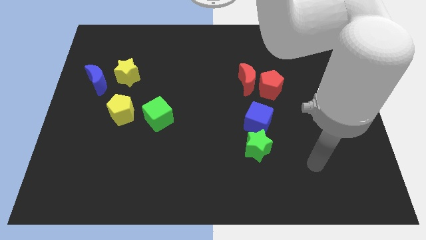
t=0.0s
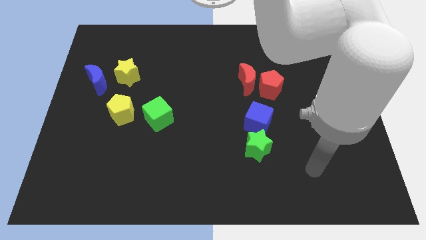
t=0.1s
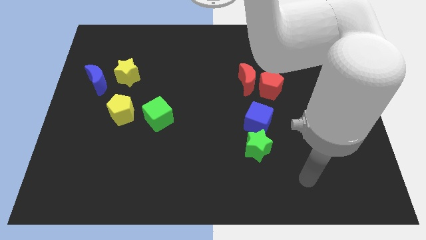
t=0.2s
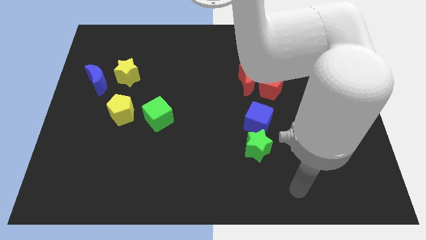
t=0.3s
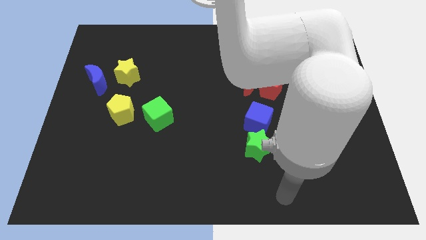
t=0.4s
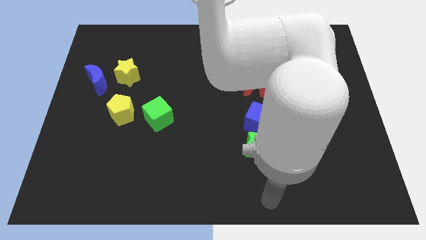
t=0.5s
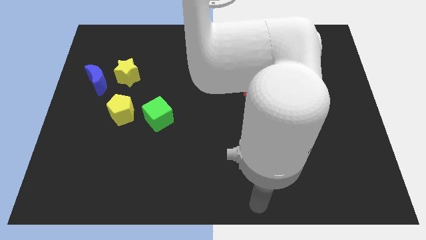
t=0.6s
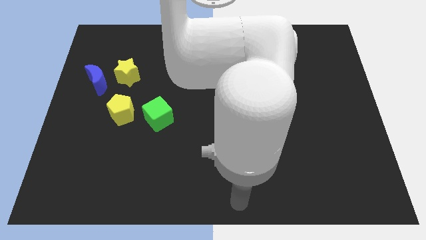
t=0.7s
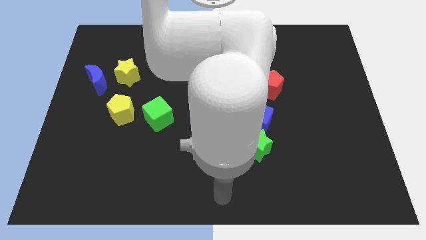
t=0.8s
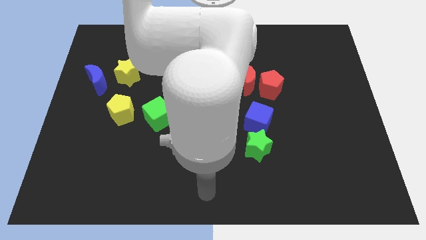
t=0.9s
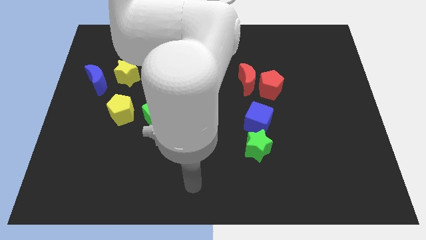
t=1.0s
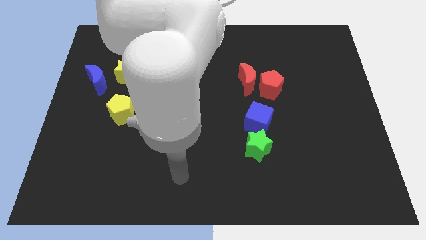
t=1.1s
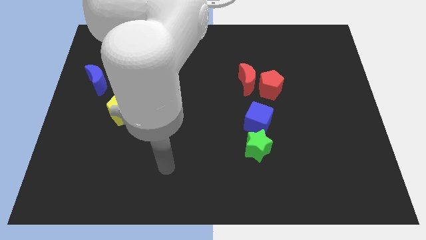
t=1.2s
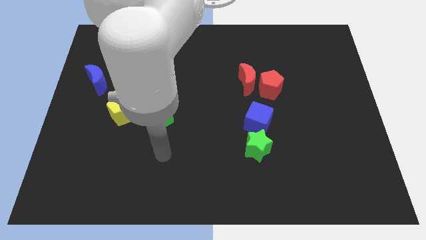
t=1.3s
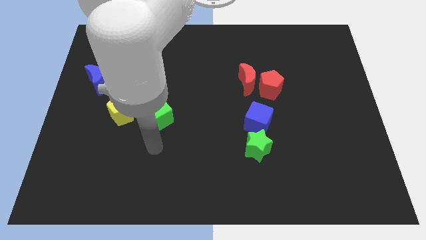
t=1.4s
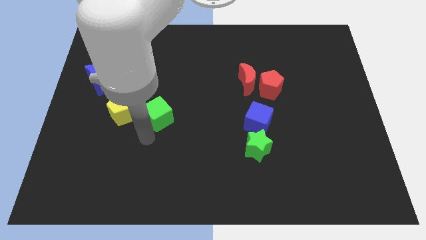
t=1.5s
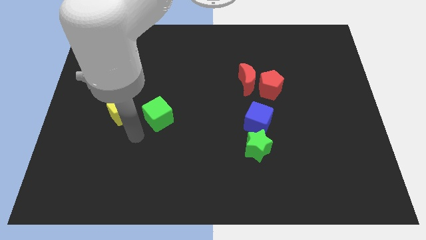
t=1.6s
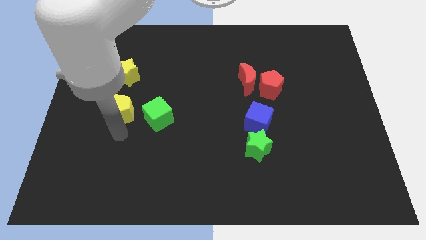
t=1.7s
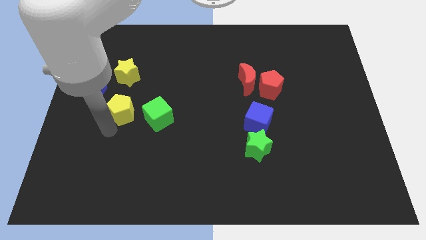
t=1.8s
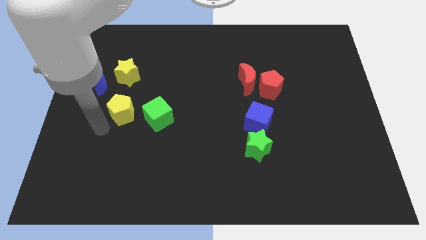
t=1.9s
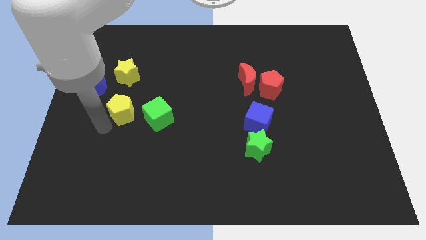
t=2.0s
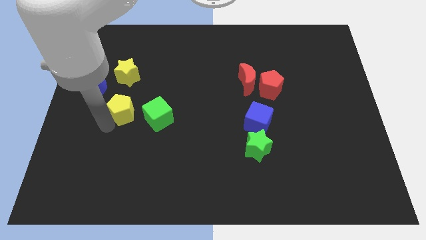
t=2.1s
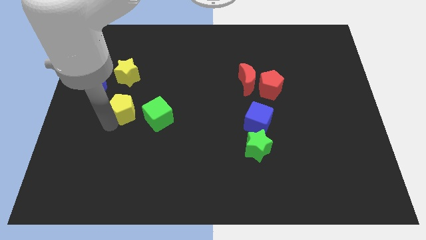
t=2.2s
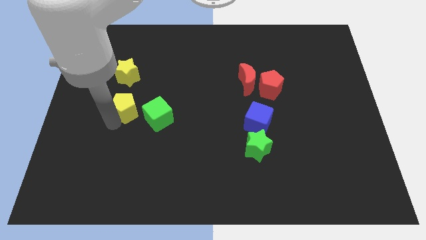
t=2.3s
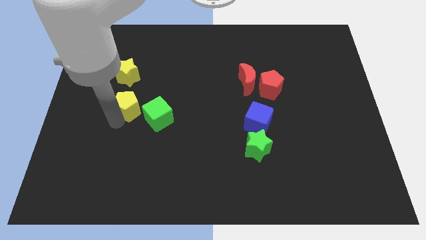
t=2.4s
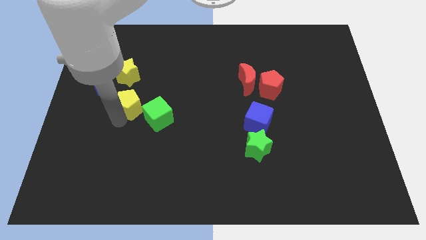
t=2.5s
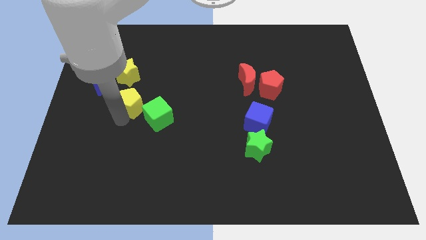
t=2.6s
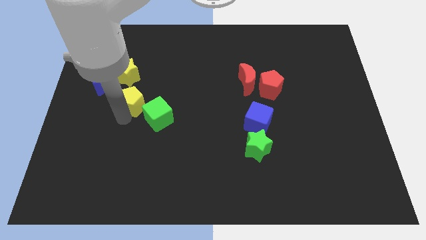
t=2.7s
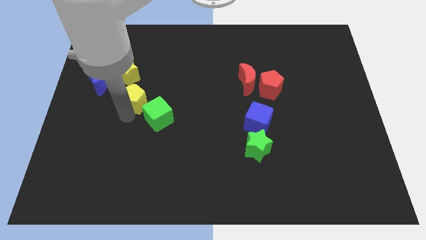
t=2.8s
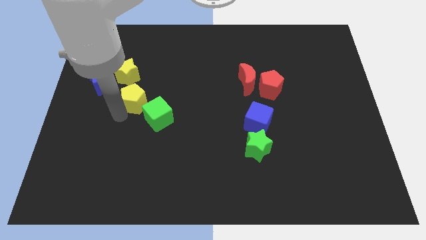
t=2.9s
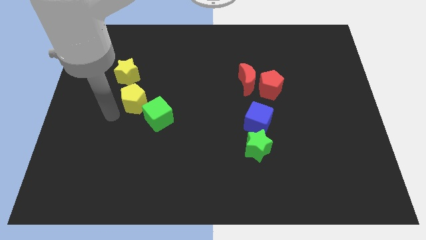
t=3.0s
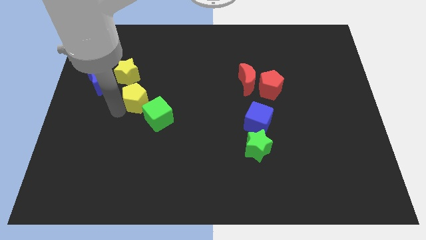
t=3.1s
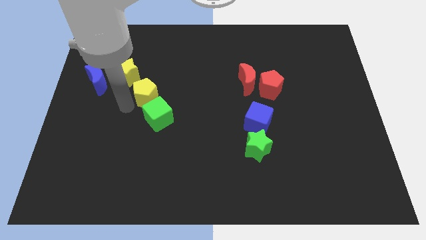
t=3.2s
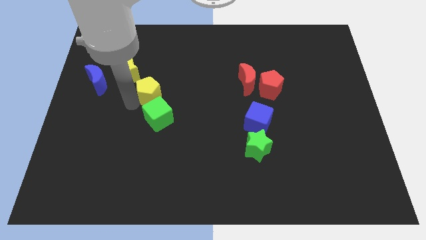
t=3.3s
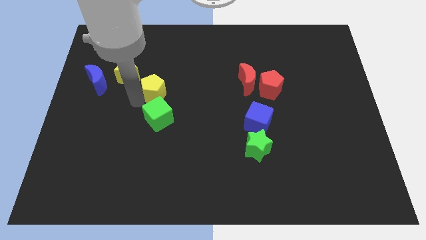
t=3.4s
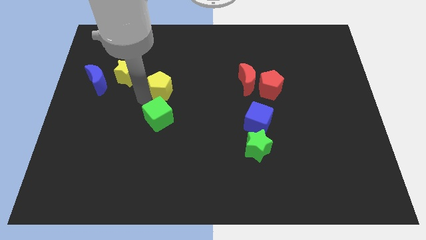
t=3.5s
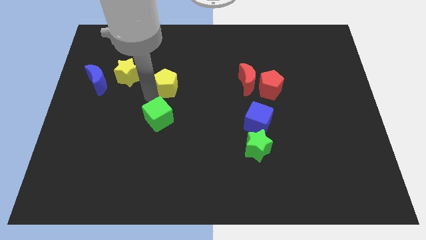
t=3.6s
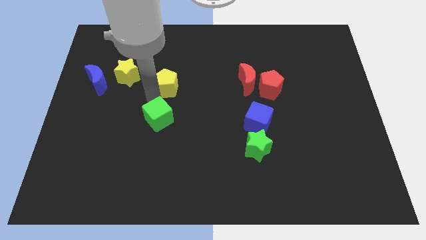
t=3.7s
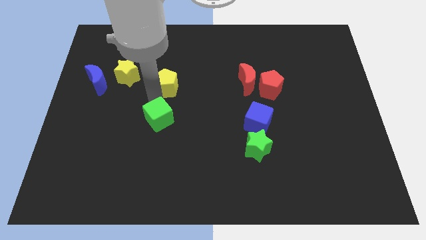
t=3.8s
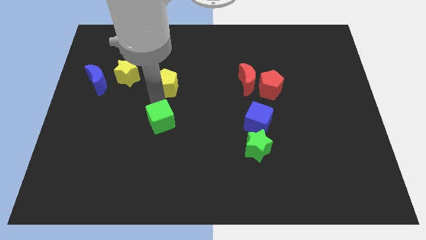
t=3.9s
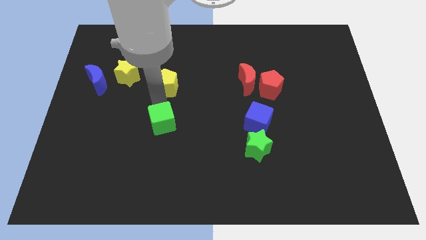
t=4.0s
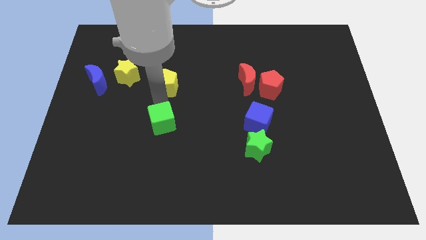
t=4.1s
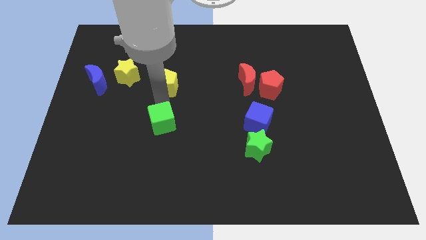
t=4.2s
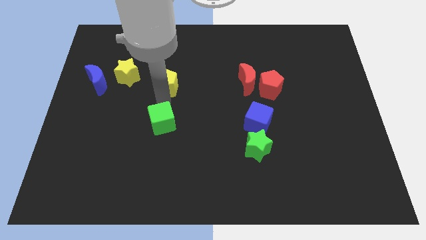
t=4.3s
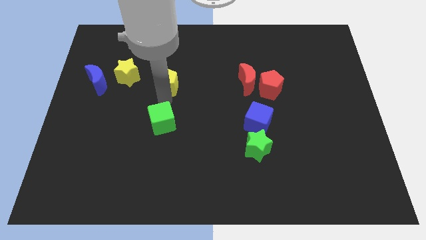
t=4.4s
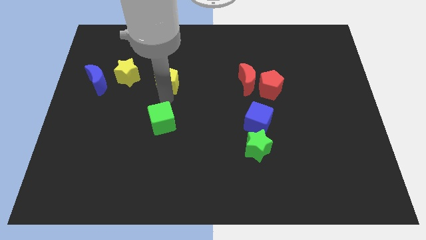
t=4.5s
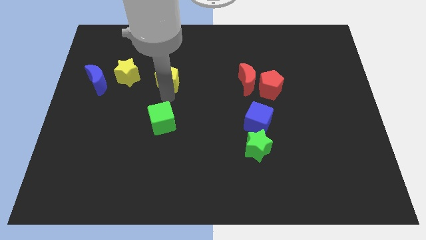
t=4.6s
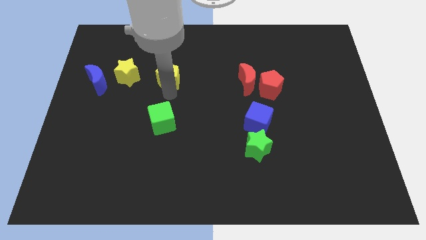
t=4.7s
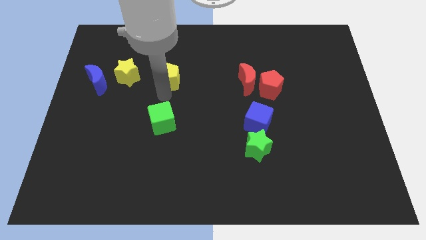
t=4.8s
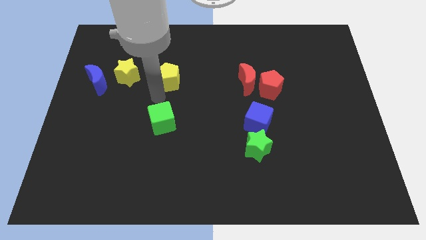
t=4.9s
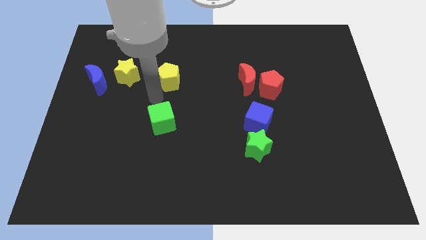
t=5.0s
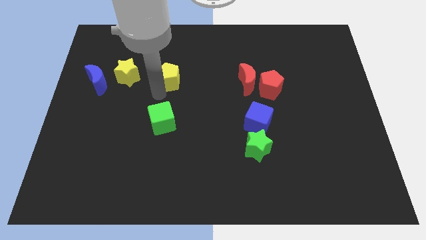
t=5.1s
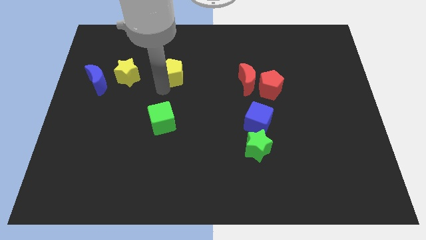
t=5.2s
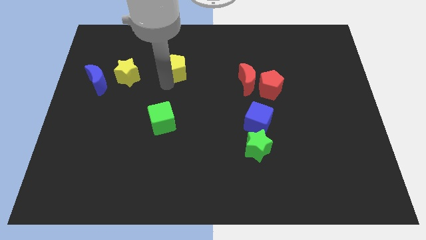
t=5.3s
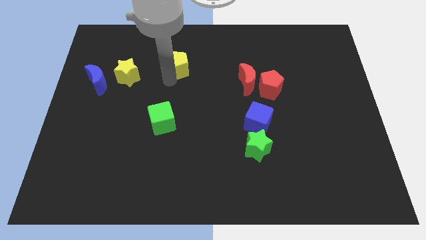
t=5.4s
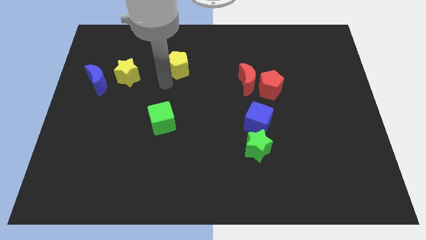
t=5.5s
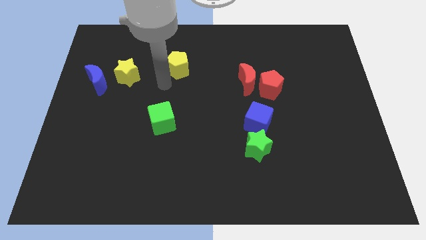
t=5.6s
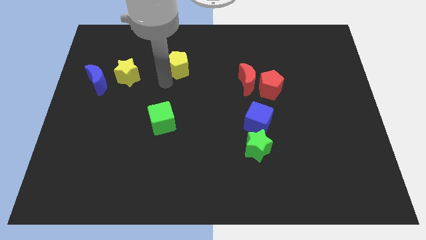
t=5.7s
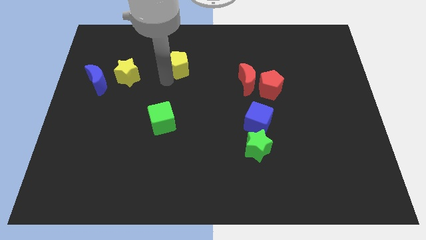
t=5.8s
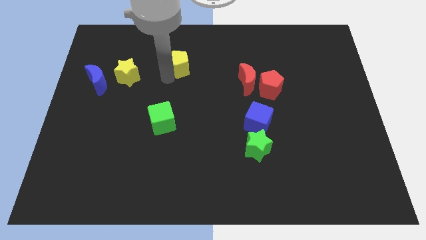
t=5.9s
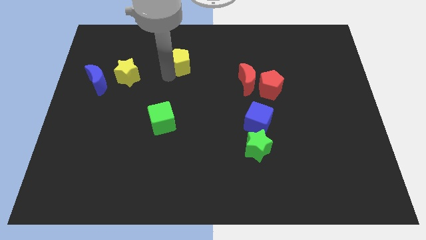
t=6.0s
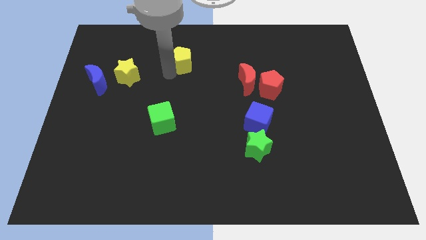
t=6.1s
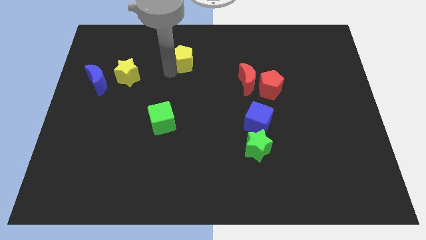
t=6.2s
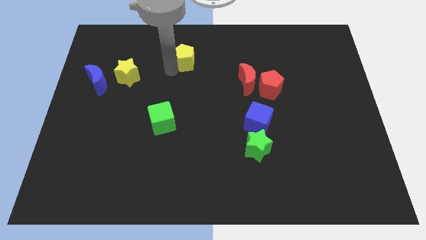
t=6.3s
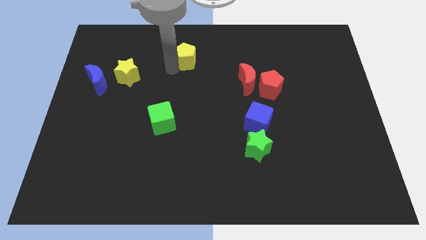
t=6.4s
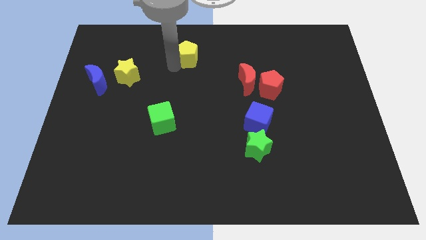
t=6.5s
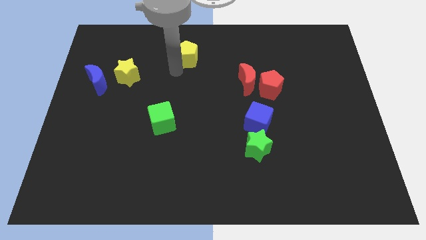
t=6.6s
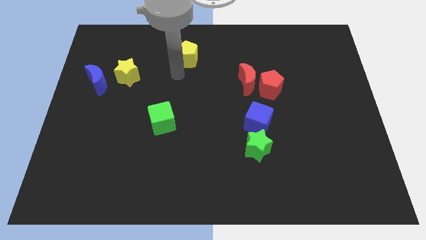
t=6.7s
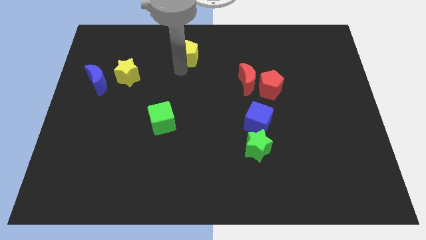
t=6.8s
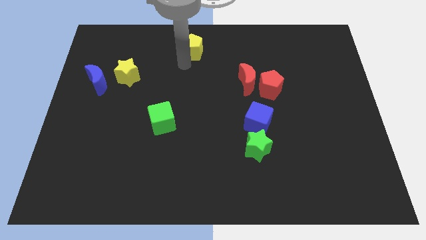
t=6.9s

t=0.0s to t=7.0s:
push the yellow pentagon to the top
